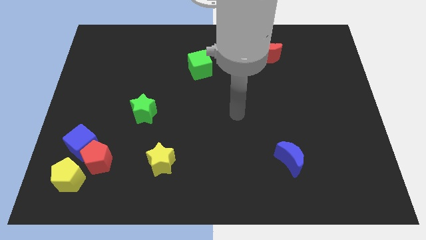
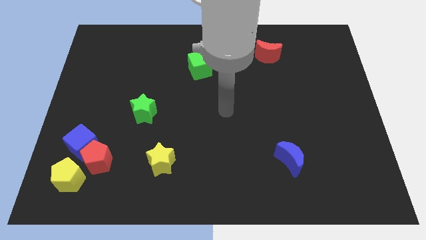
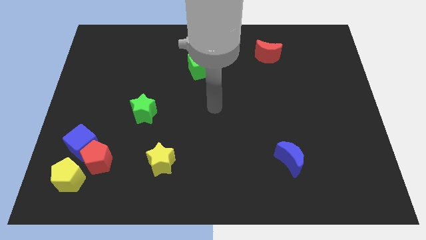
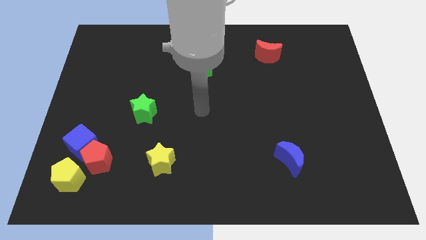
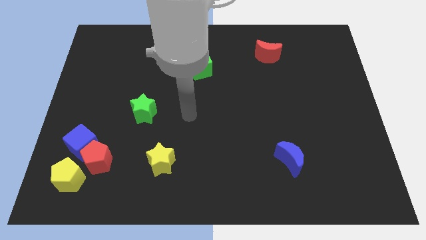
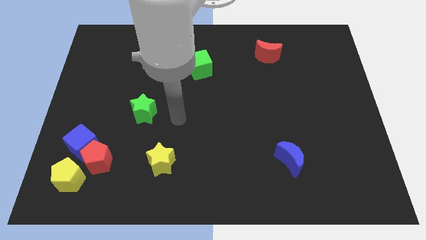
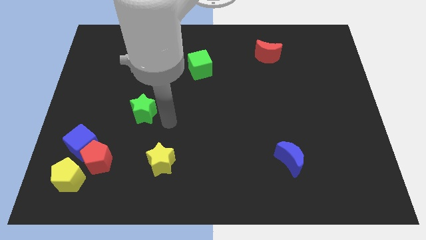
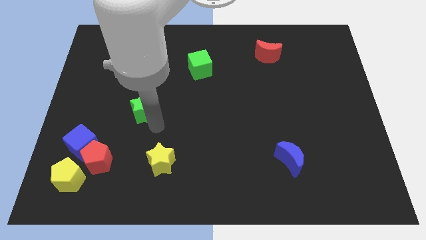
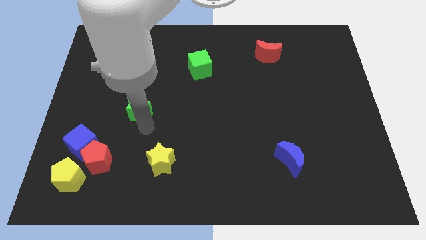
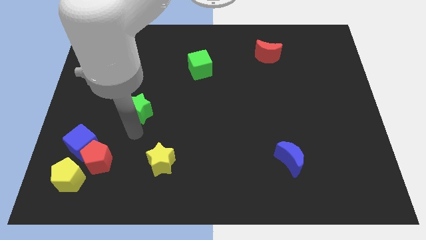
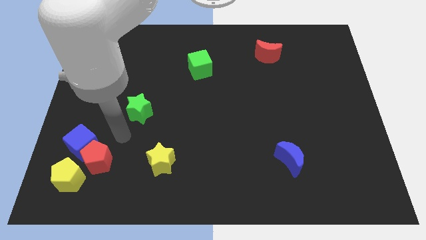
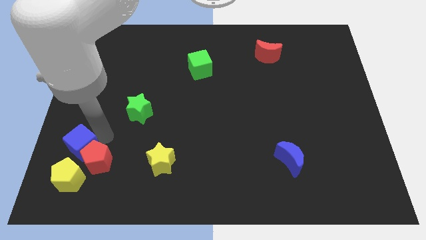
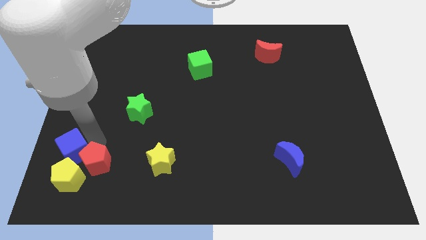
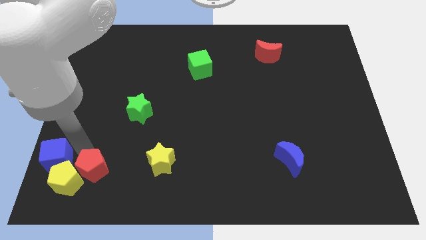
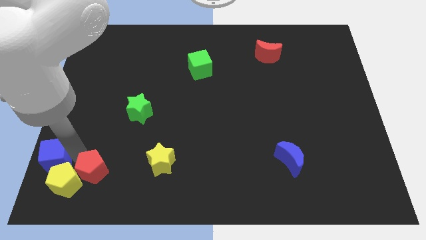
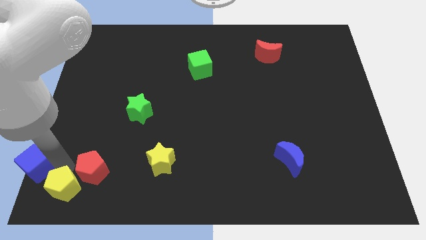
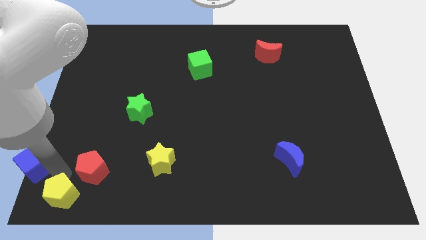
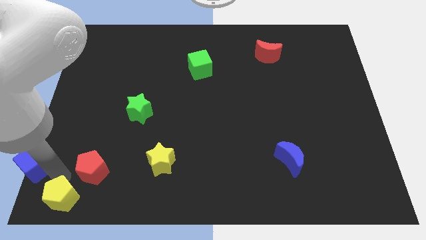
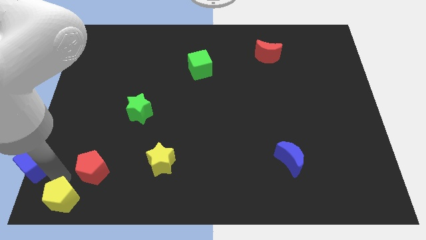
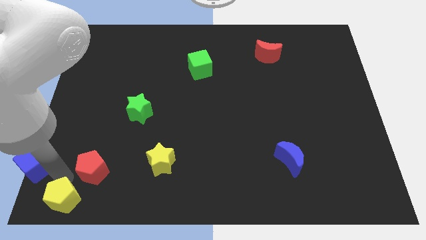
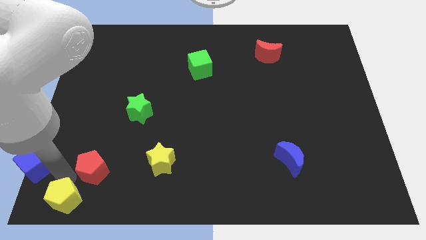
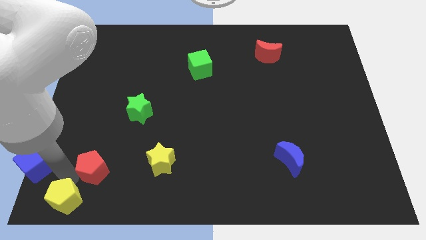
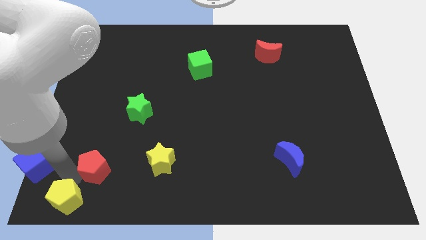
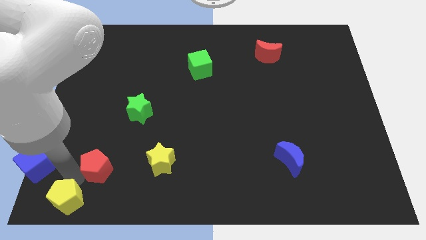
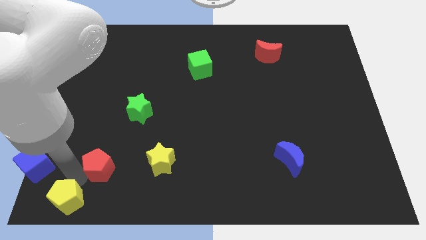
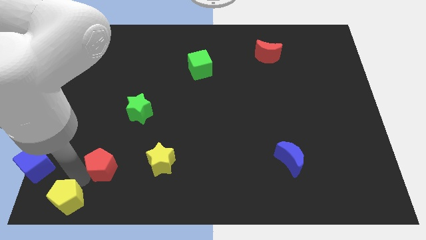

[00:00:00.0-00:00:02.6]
move the red pentagon away from the blue cube and yellow pentagon

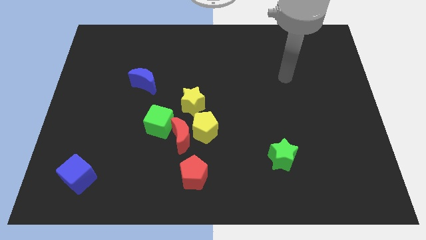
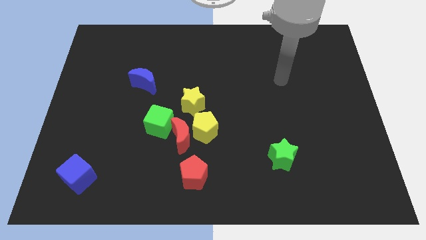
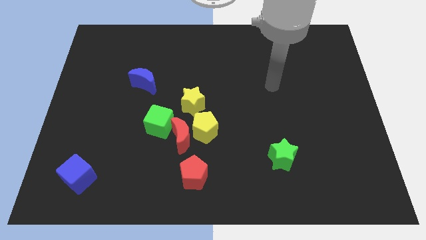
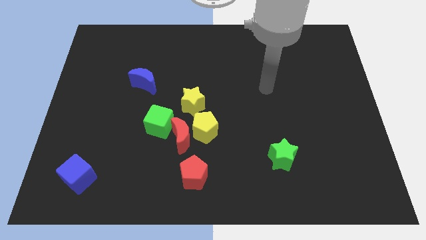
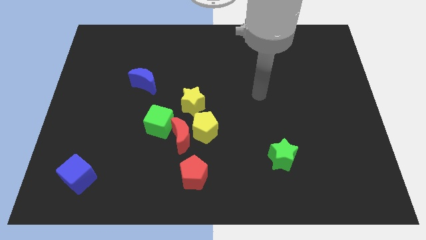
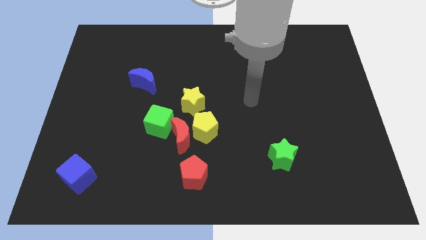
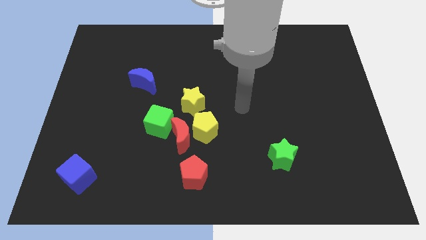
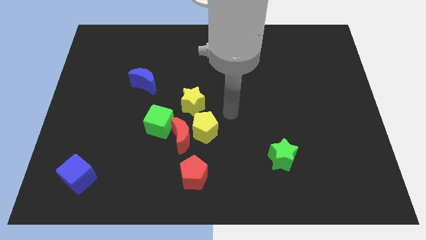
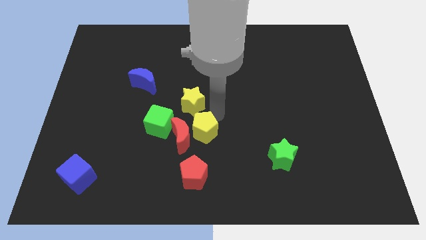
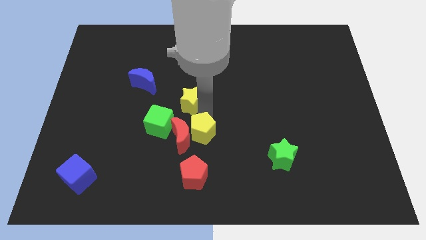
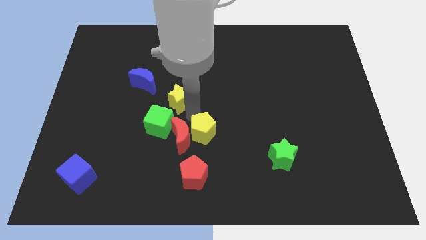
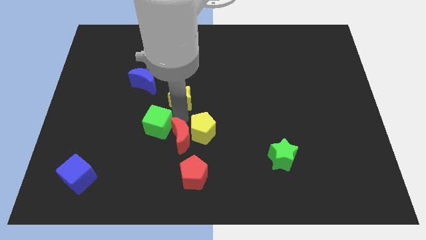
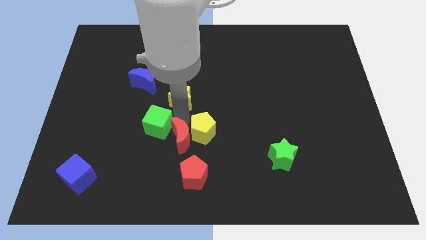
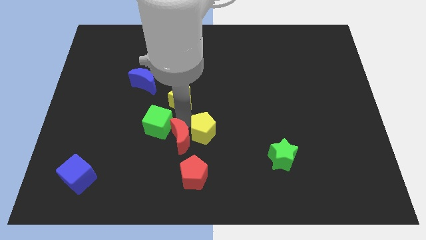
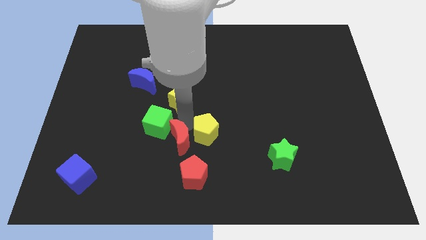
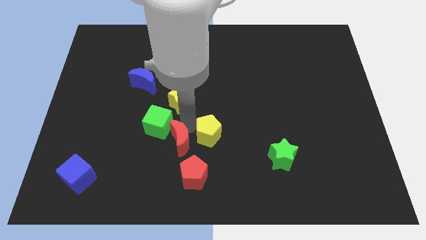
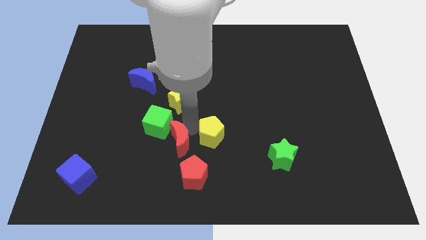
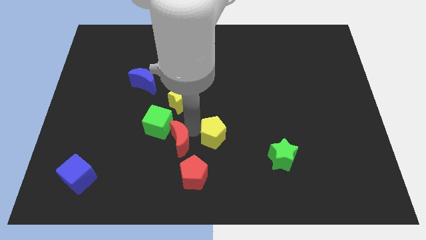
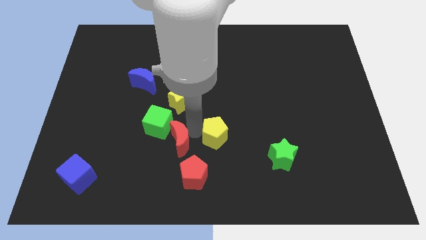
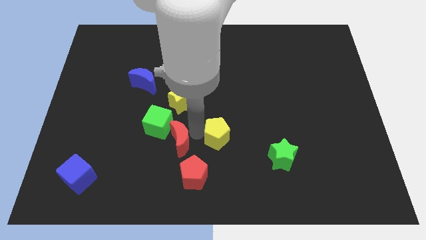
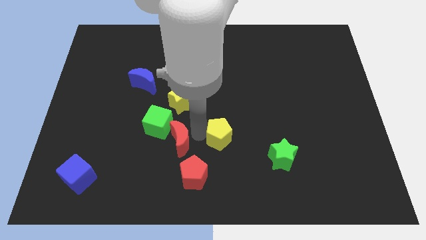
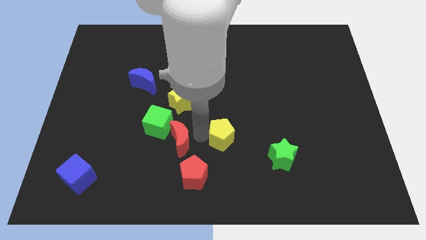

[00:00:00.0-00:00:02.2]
separate the yellow pentagon from the red moon and yellow star

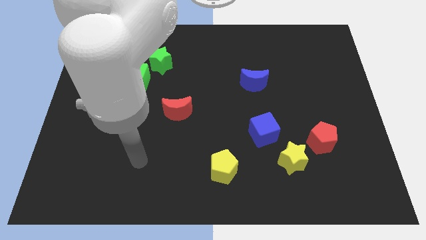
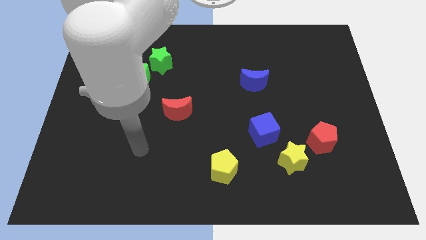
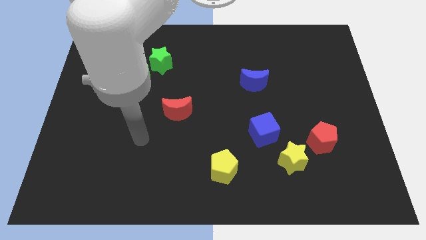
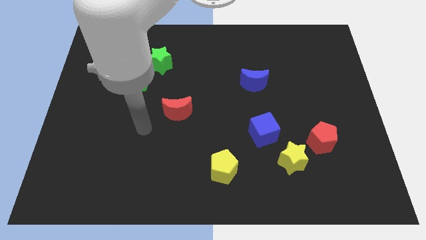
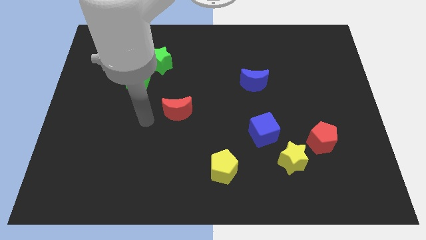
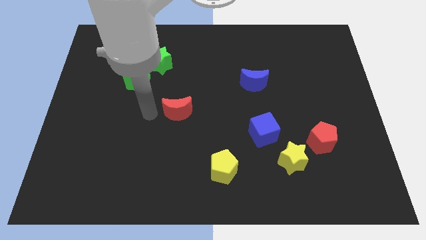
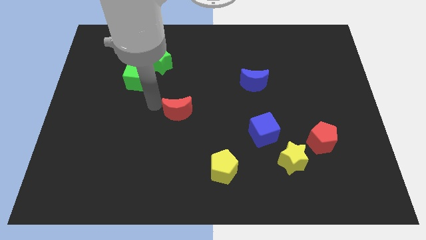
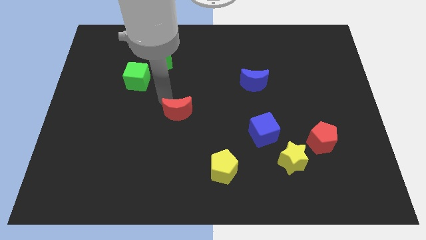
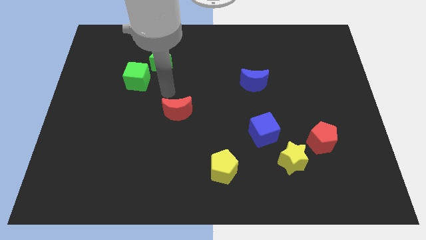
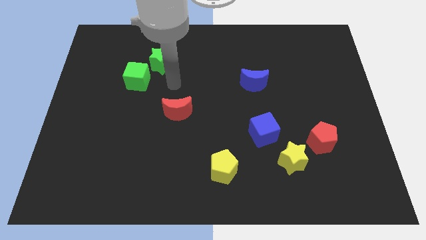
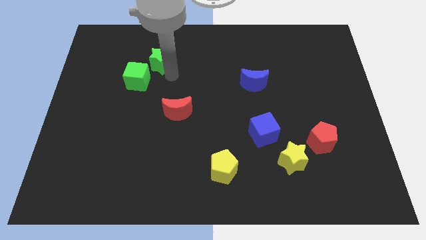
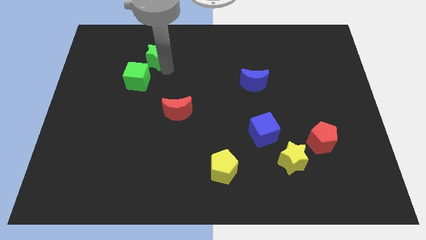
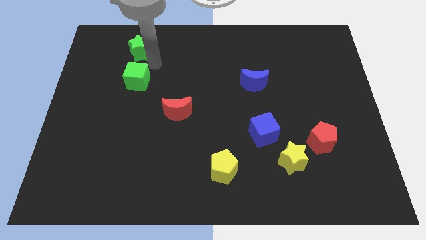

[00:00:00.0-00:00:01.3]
separate the green cube from the green star

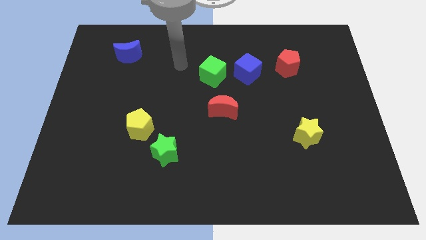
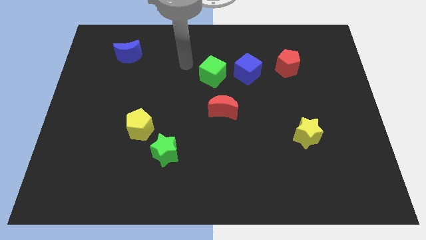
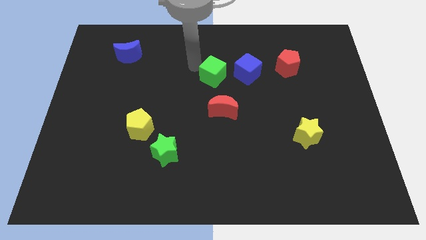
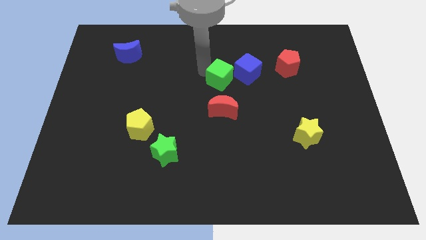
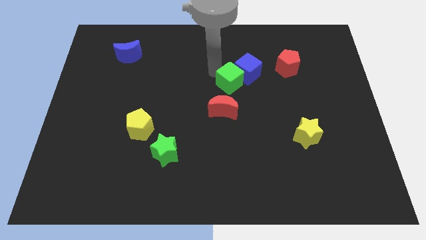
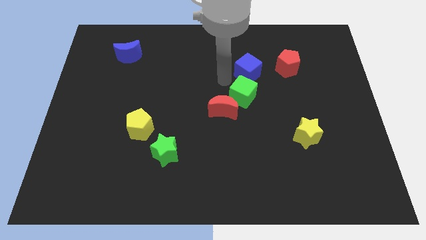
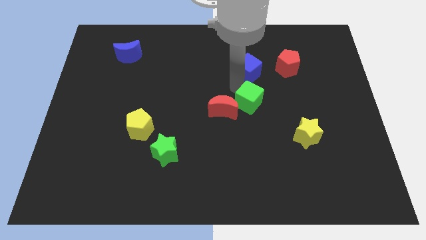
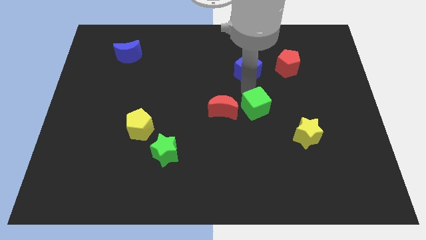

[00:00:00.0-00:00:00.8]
pull the blue cube apart from the green cube

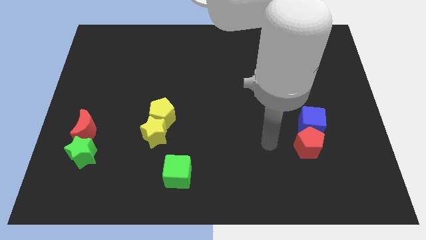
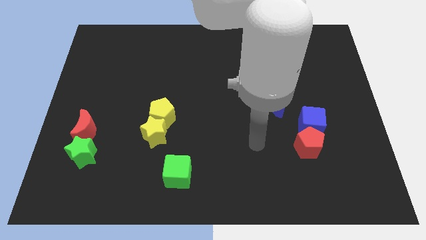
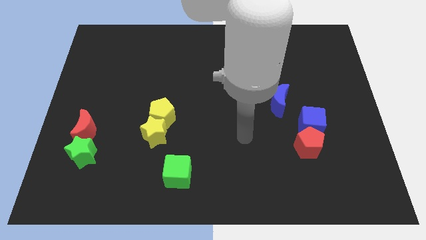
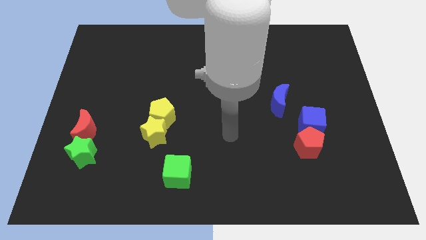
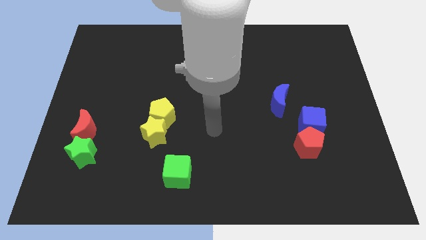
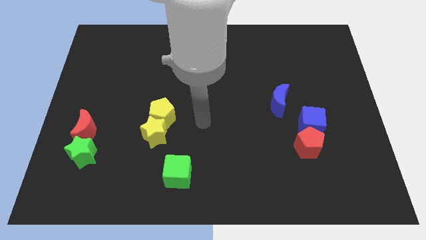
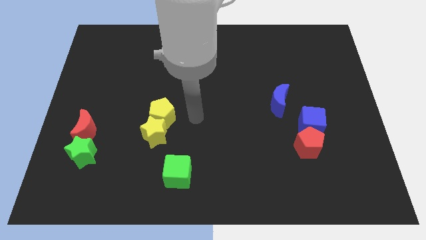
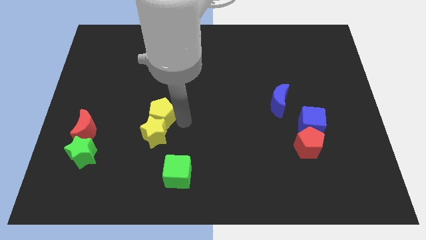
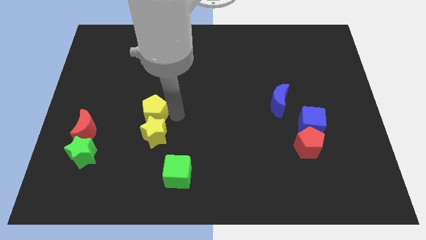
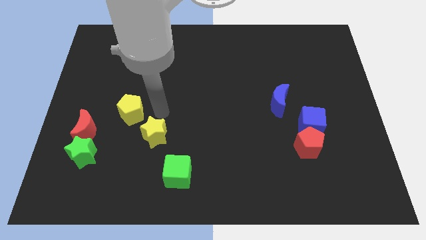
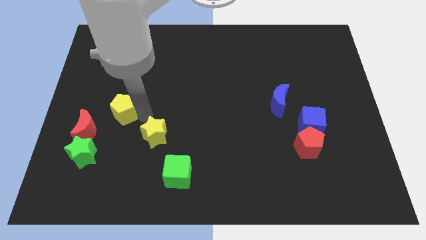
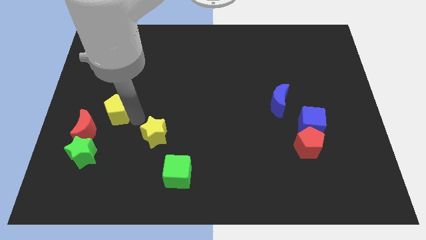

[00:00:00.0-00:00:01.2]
separate the yellow star from the yellow pentagon

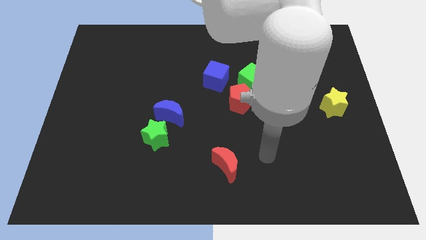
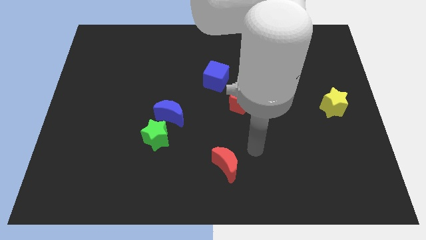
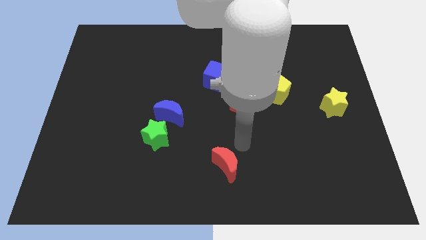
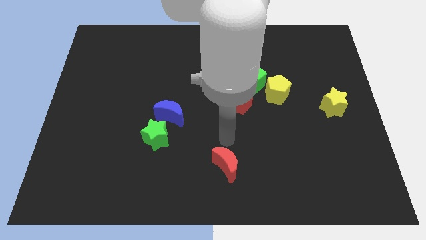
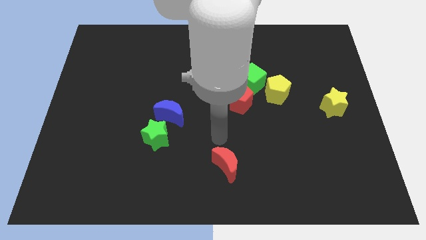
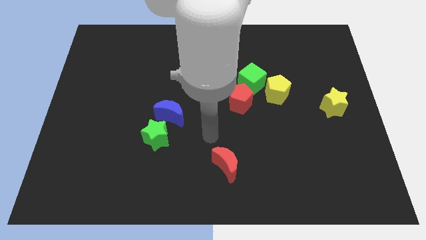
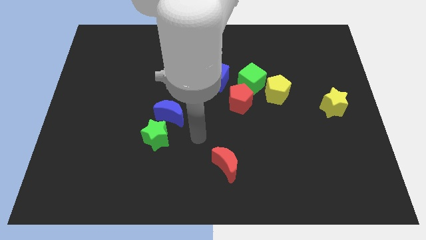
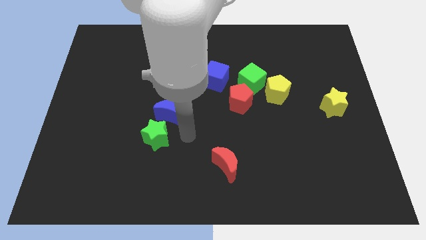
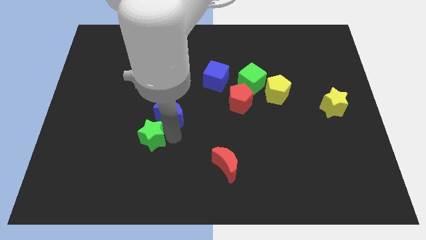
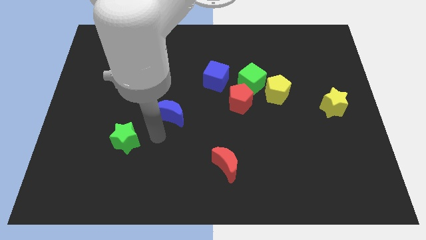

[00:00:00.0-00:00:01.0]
move the blue moon away from the green star
